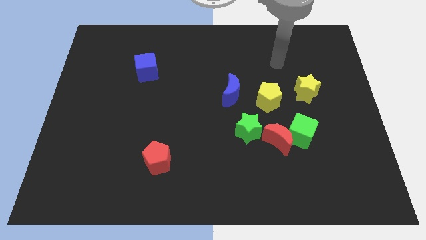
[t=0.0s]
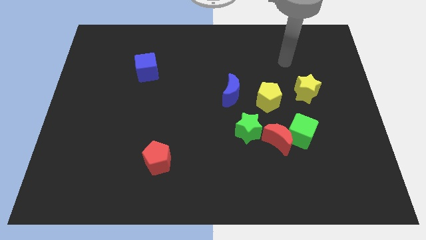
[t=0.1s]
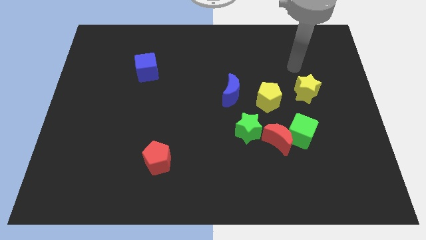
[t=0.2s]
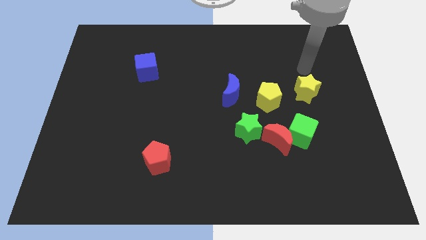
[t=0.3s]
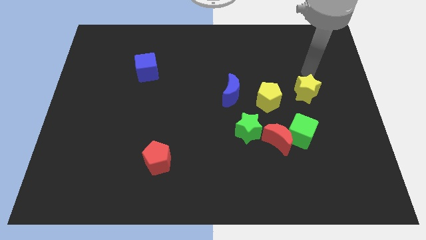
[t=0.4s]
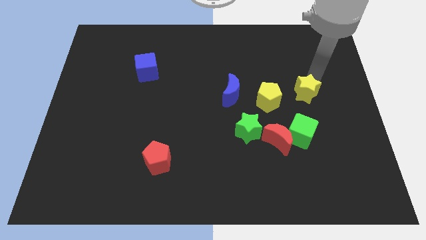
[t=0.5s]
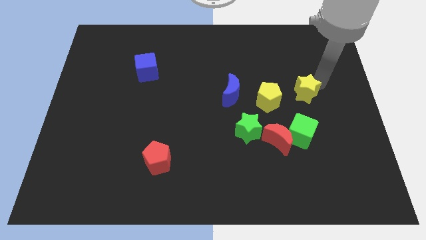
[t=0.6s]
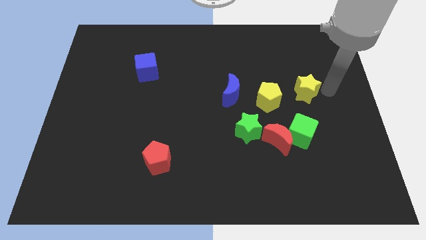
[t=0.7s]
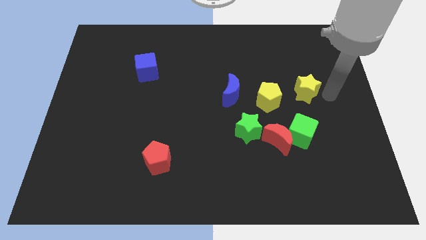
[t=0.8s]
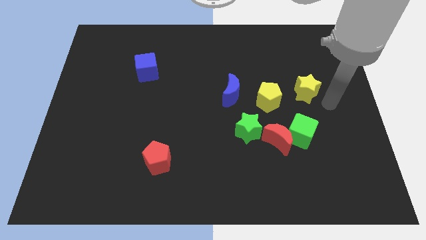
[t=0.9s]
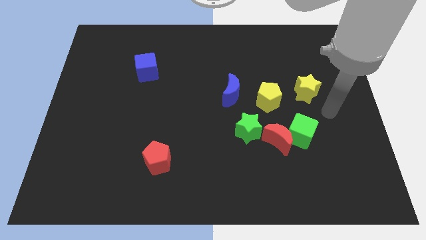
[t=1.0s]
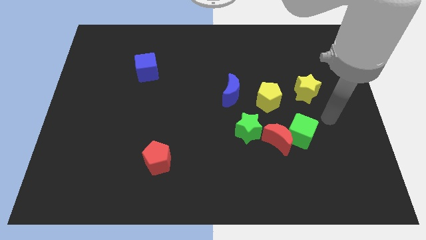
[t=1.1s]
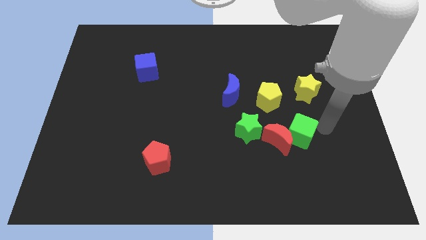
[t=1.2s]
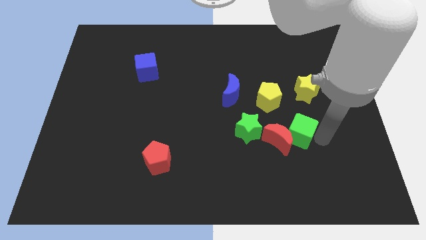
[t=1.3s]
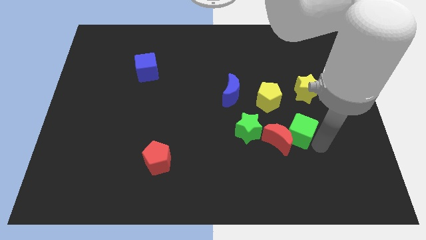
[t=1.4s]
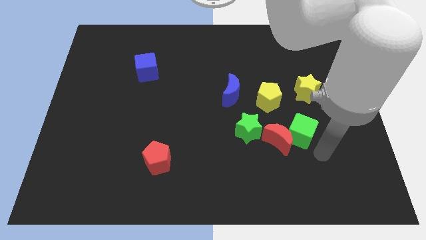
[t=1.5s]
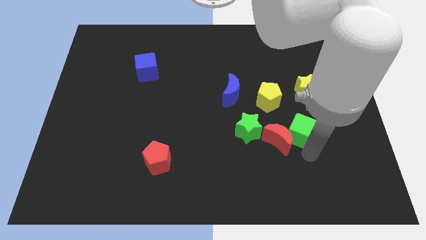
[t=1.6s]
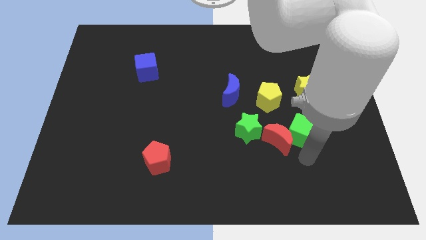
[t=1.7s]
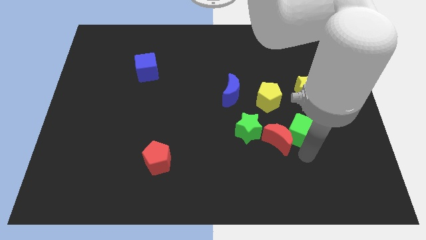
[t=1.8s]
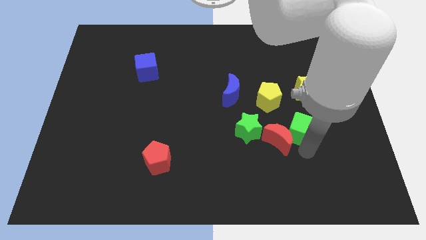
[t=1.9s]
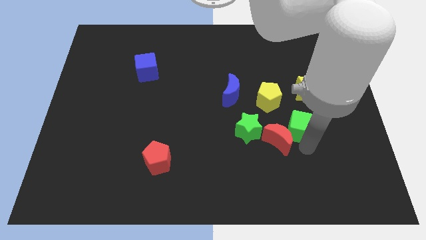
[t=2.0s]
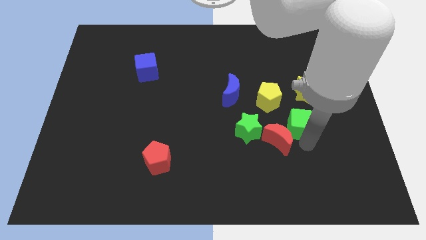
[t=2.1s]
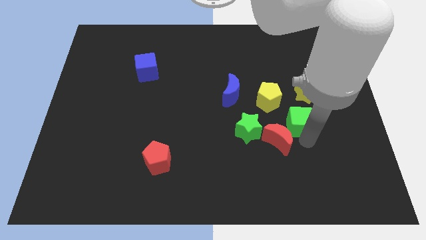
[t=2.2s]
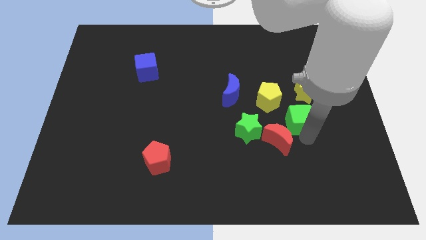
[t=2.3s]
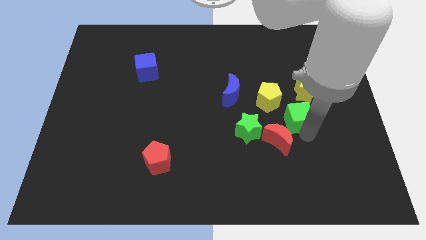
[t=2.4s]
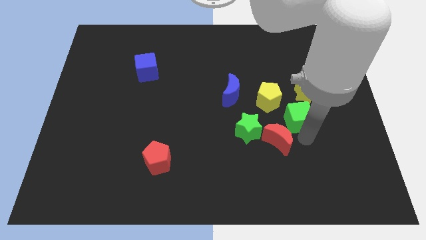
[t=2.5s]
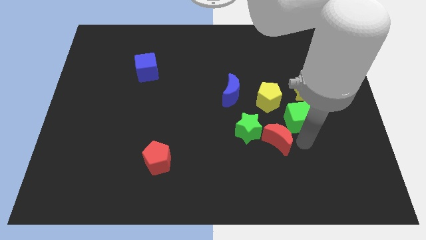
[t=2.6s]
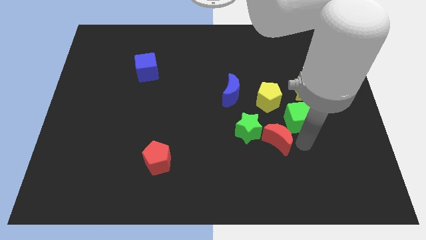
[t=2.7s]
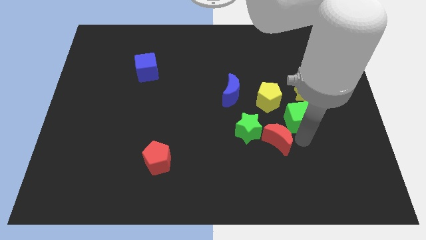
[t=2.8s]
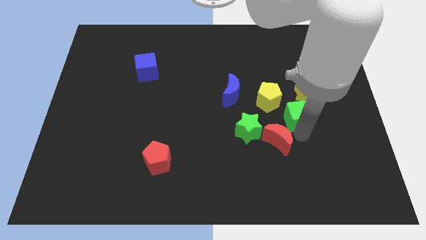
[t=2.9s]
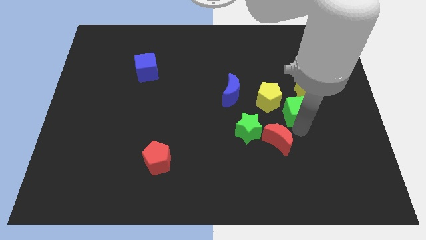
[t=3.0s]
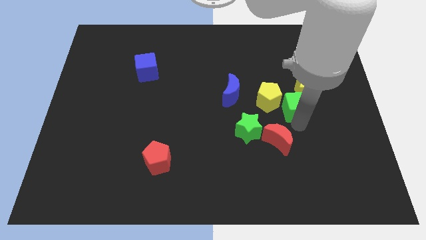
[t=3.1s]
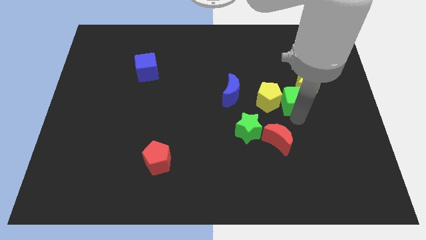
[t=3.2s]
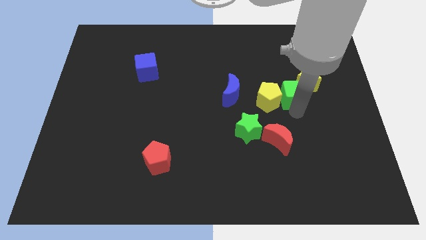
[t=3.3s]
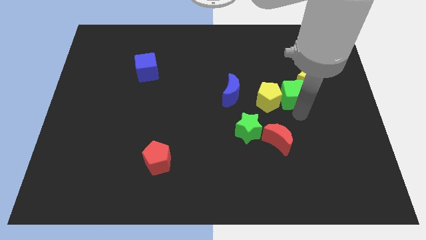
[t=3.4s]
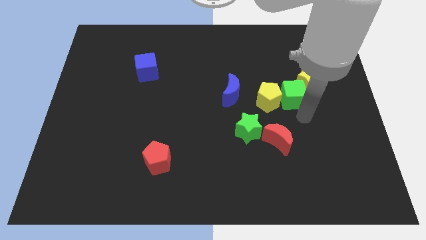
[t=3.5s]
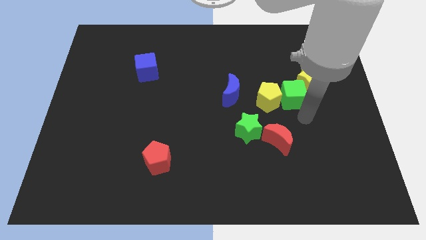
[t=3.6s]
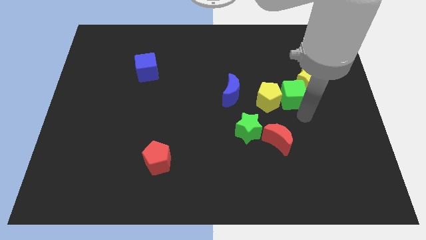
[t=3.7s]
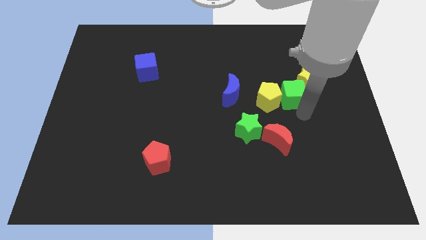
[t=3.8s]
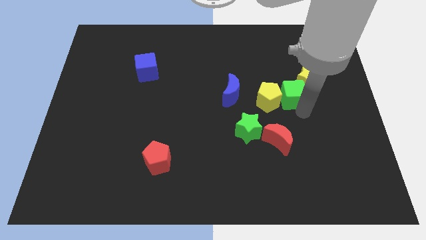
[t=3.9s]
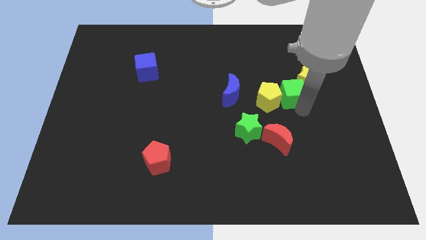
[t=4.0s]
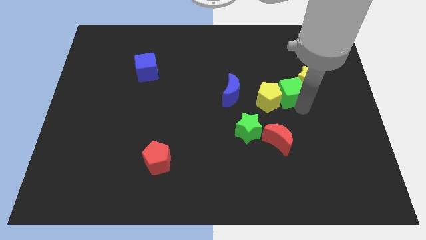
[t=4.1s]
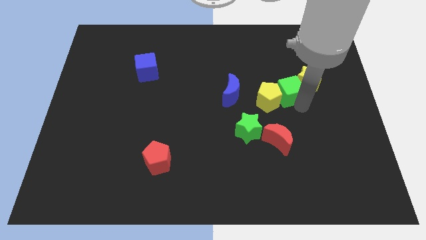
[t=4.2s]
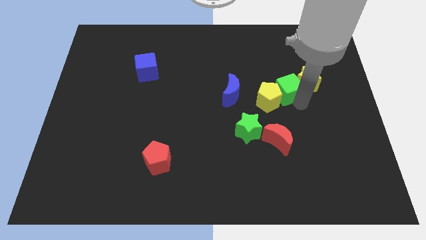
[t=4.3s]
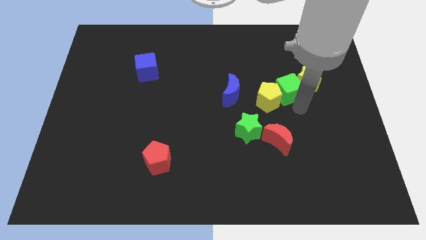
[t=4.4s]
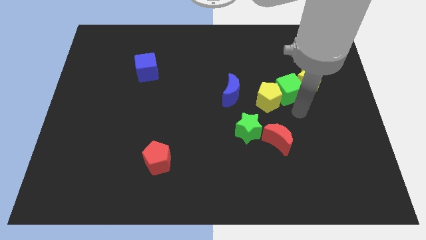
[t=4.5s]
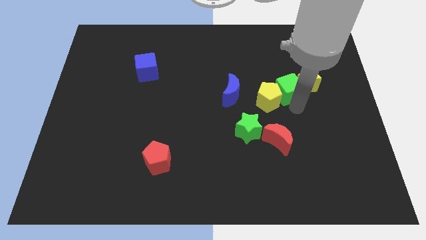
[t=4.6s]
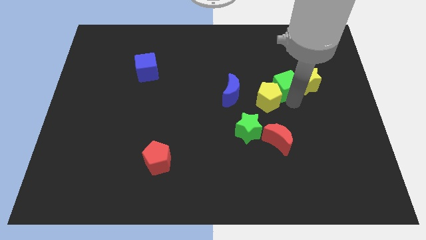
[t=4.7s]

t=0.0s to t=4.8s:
move the green cube to the top of the yellow pentagon

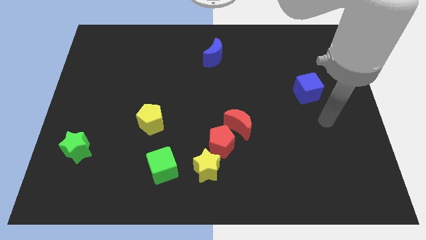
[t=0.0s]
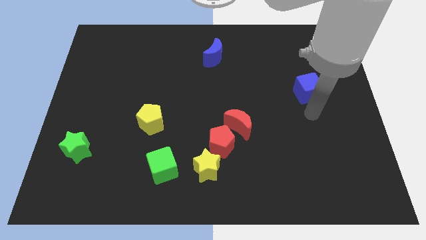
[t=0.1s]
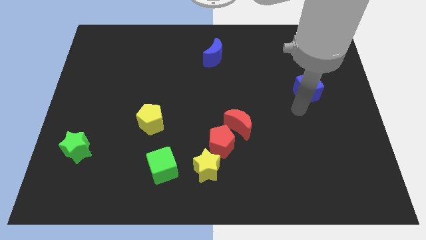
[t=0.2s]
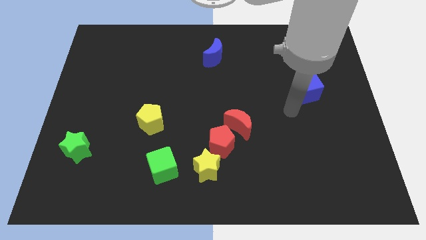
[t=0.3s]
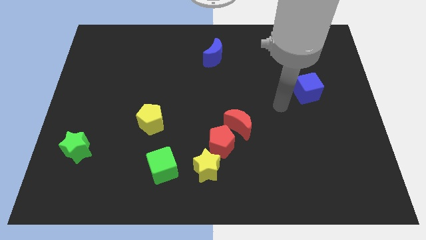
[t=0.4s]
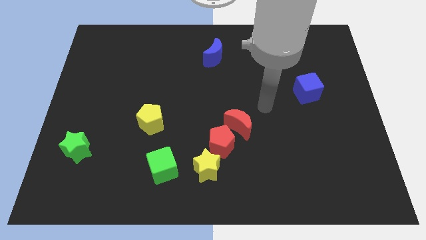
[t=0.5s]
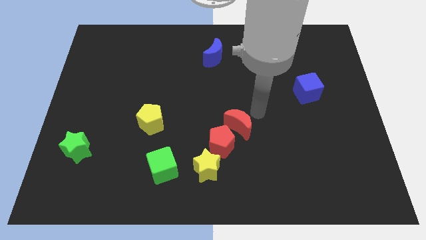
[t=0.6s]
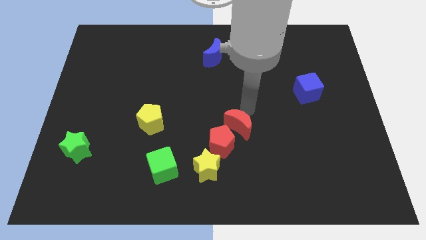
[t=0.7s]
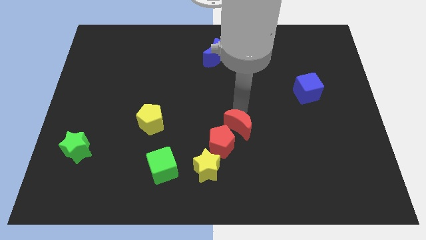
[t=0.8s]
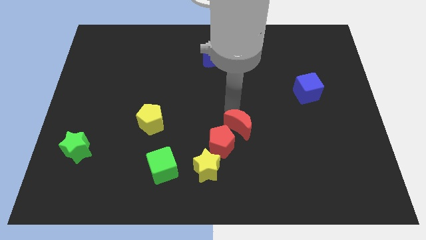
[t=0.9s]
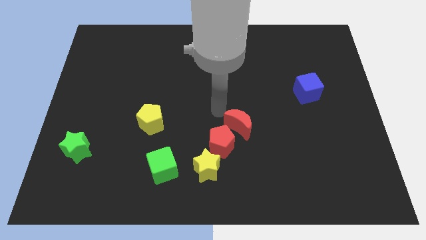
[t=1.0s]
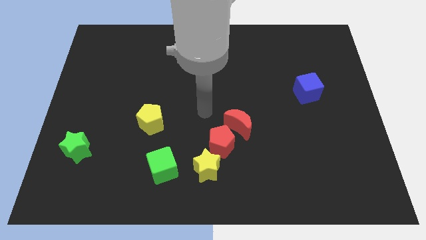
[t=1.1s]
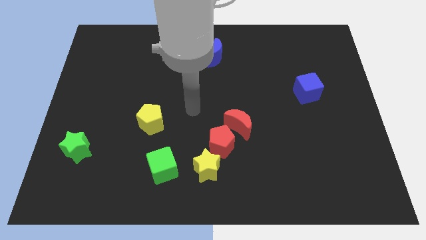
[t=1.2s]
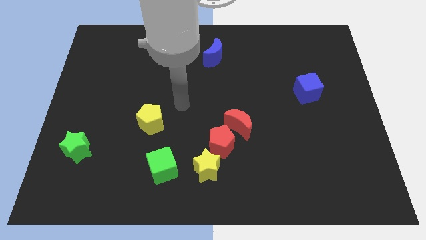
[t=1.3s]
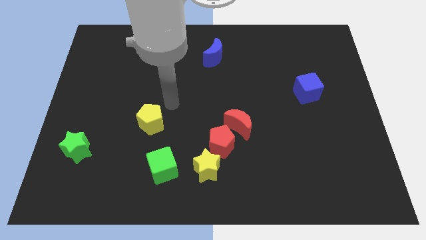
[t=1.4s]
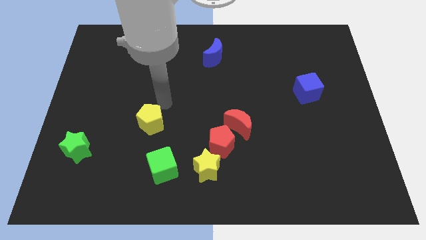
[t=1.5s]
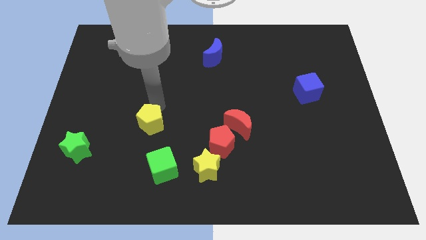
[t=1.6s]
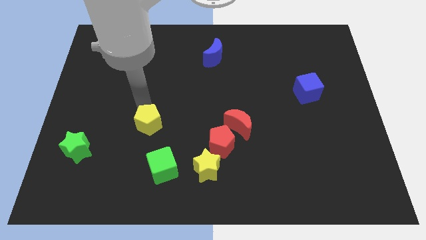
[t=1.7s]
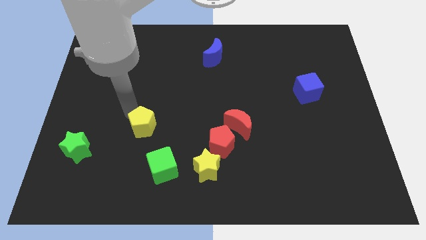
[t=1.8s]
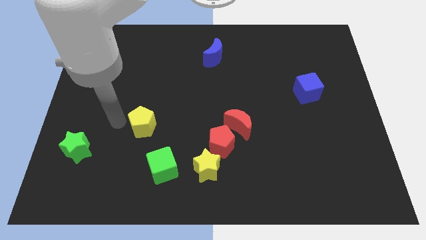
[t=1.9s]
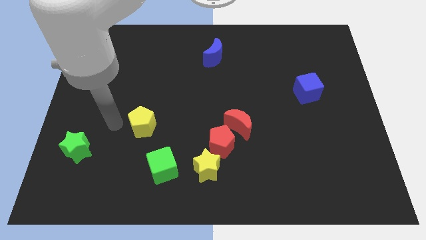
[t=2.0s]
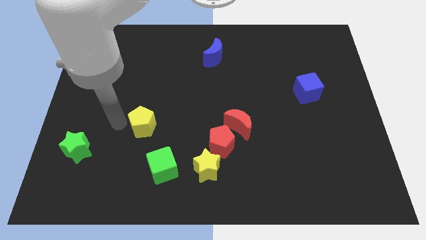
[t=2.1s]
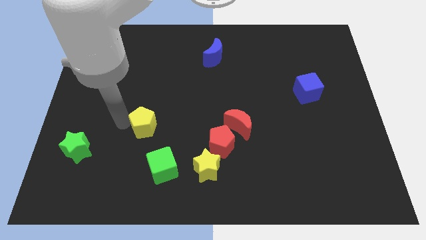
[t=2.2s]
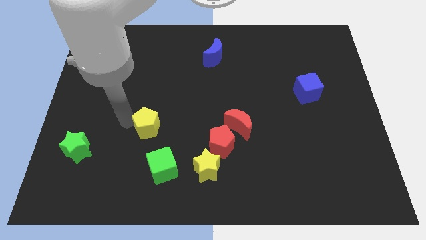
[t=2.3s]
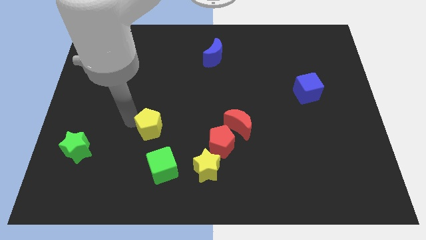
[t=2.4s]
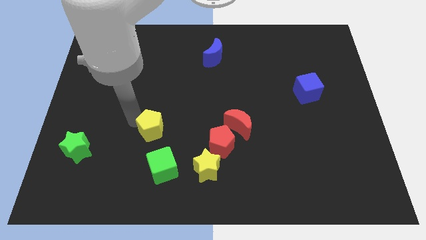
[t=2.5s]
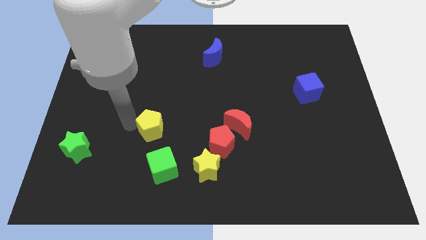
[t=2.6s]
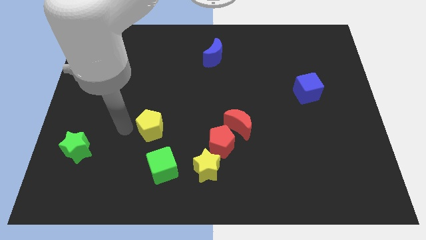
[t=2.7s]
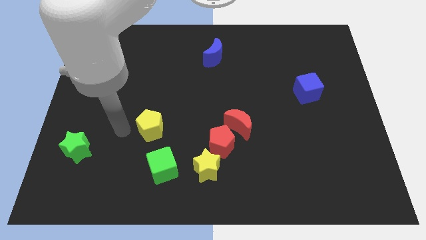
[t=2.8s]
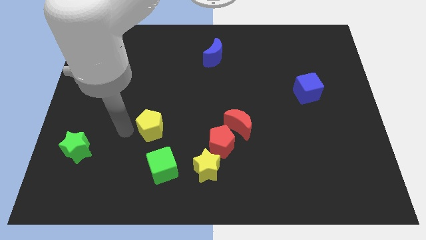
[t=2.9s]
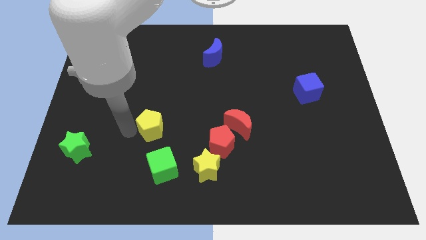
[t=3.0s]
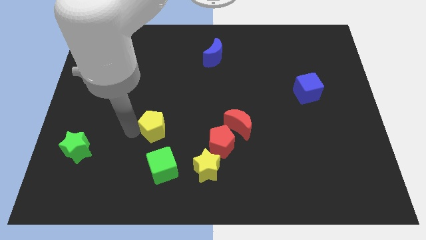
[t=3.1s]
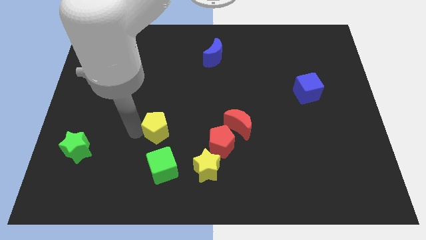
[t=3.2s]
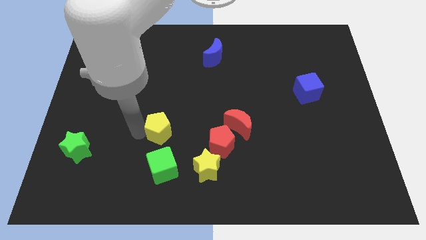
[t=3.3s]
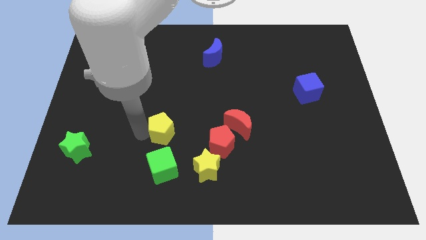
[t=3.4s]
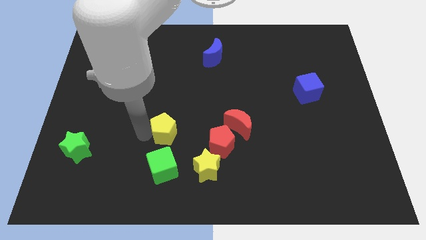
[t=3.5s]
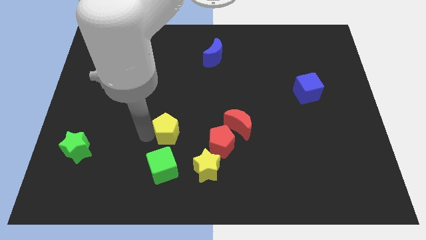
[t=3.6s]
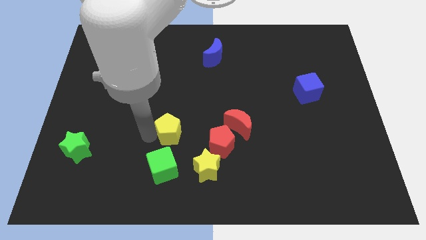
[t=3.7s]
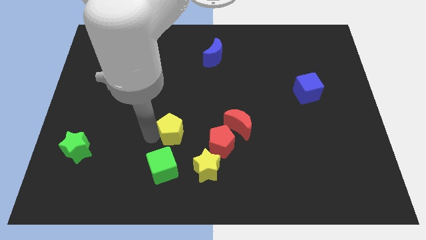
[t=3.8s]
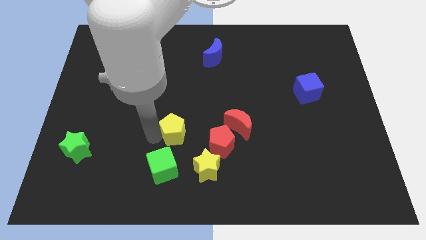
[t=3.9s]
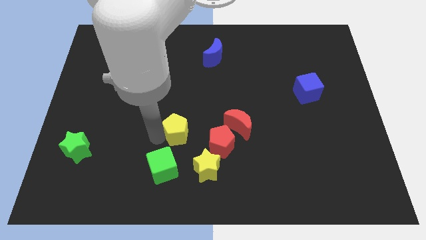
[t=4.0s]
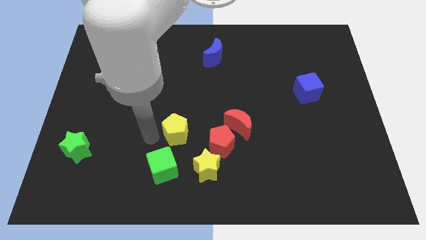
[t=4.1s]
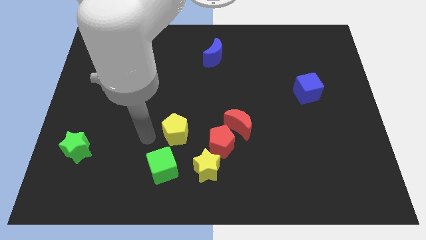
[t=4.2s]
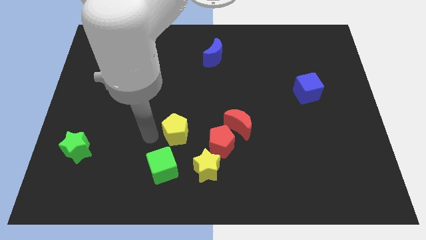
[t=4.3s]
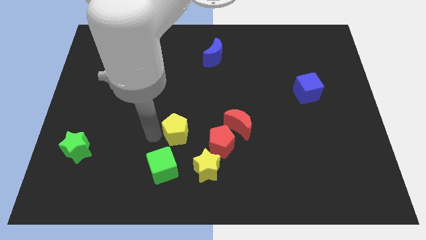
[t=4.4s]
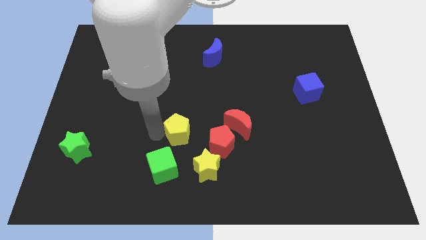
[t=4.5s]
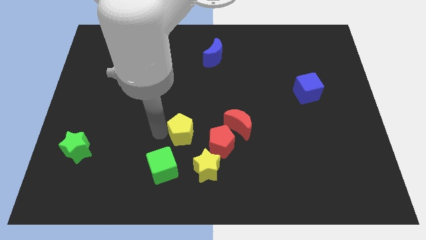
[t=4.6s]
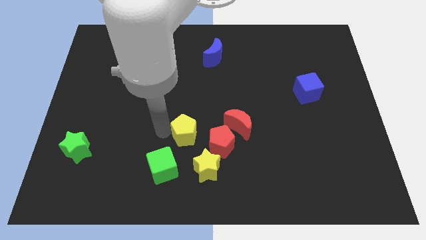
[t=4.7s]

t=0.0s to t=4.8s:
move the yellow pentagon above the yellow star
